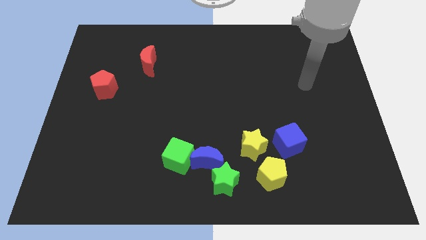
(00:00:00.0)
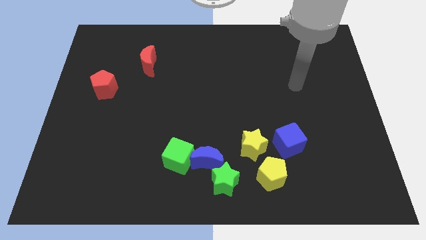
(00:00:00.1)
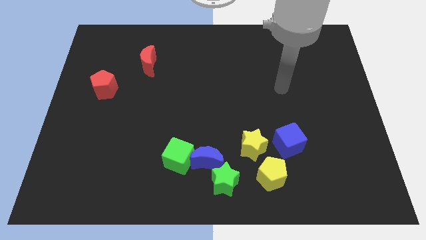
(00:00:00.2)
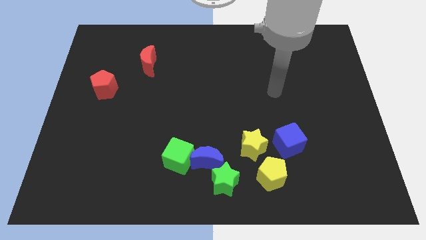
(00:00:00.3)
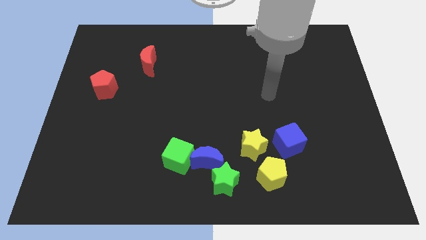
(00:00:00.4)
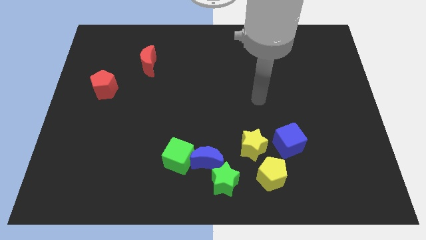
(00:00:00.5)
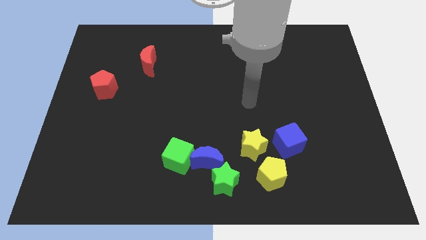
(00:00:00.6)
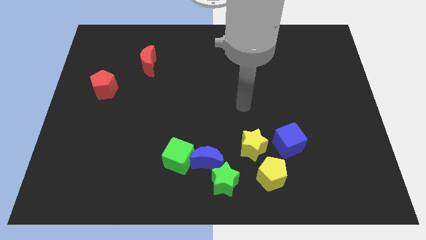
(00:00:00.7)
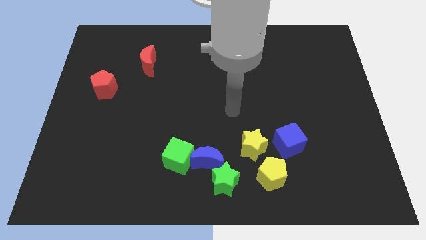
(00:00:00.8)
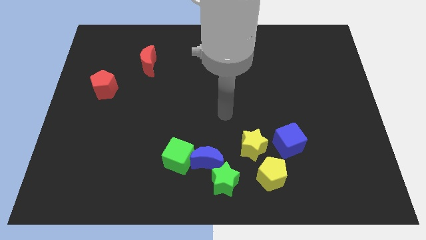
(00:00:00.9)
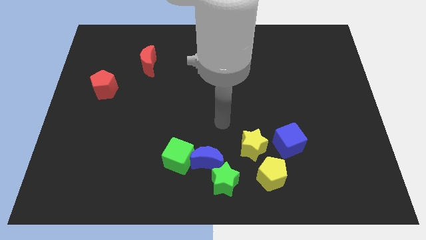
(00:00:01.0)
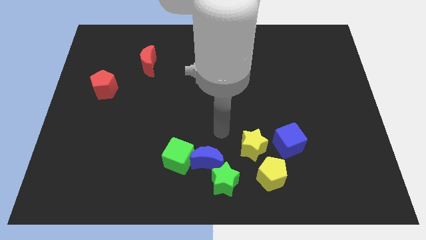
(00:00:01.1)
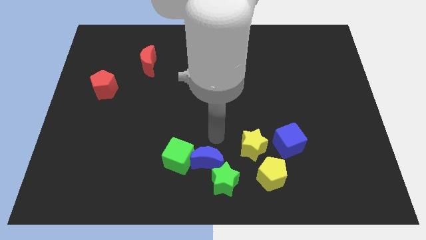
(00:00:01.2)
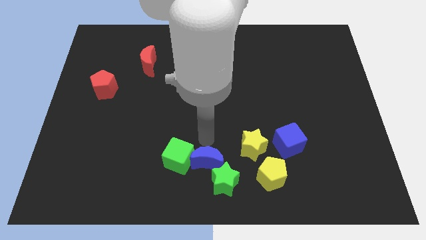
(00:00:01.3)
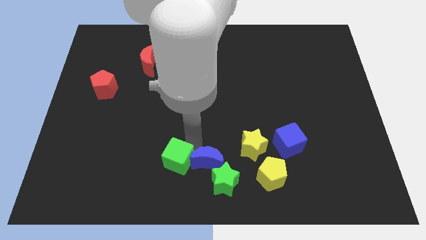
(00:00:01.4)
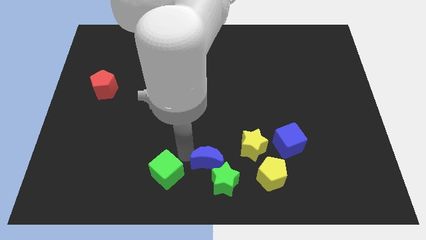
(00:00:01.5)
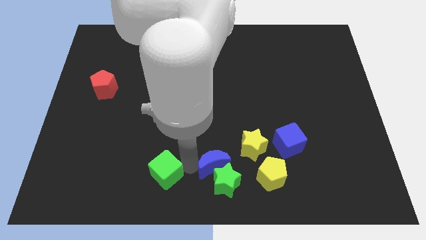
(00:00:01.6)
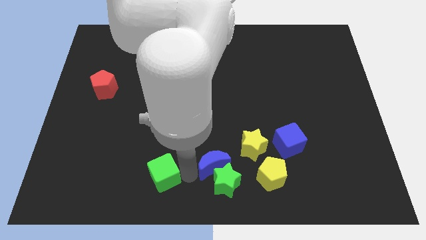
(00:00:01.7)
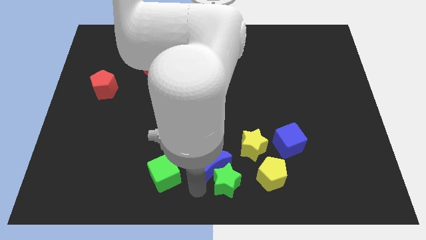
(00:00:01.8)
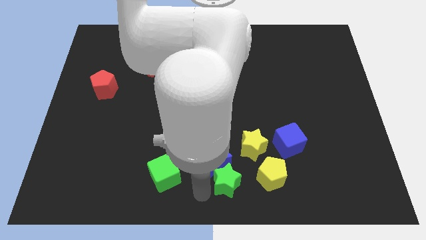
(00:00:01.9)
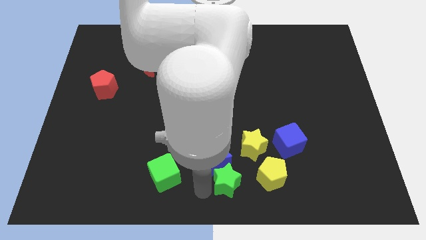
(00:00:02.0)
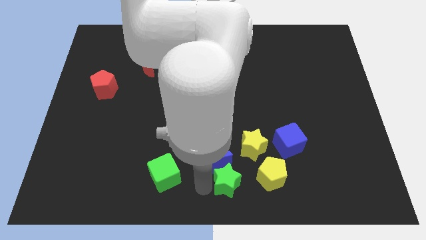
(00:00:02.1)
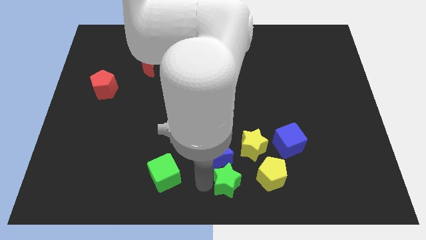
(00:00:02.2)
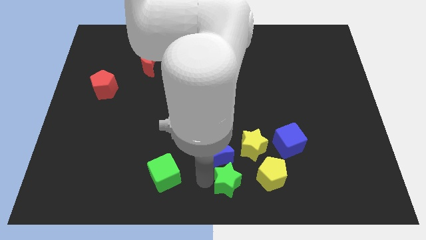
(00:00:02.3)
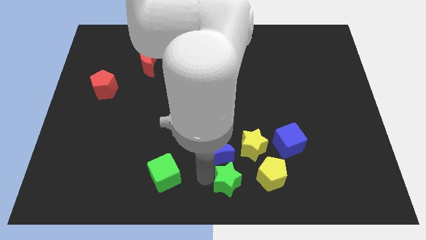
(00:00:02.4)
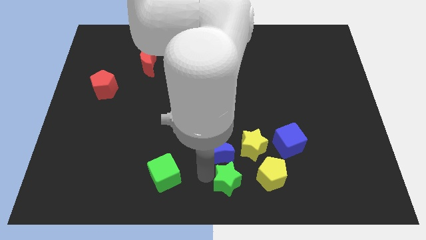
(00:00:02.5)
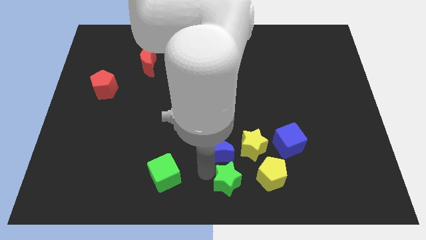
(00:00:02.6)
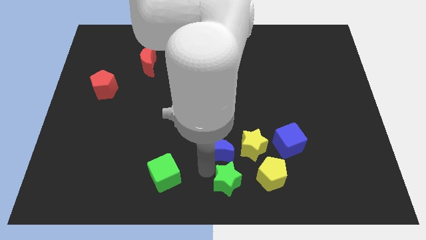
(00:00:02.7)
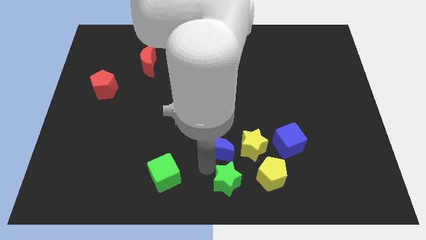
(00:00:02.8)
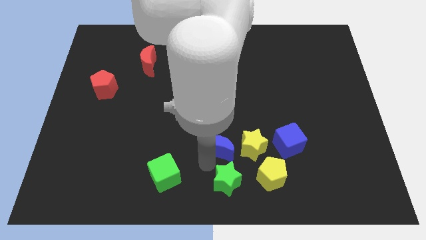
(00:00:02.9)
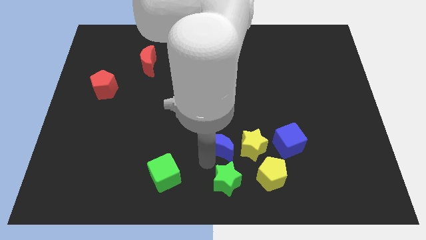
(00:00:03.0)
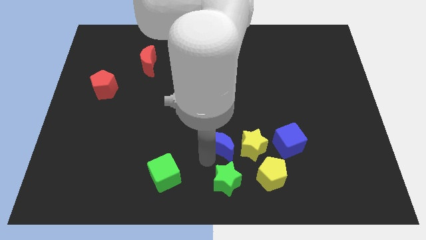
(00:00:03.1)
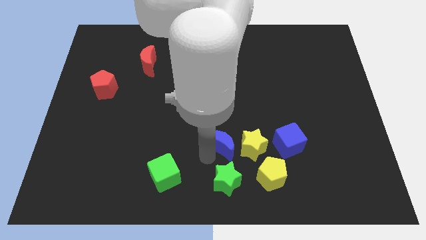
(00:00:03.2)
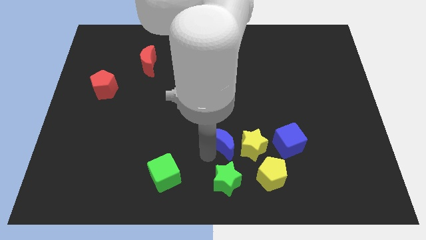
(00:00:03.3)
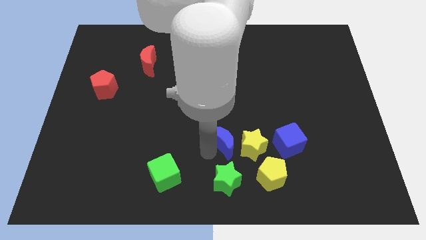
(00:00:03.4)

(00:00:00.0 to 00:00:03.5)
move the blue moon away from the green star and green cube

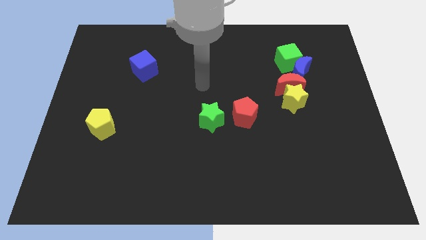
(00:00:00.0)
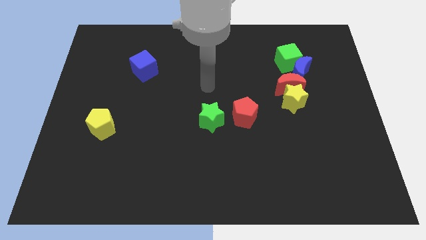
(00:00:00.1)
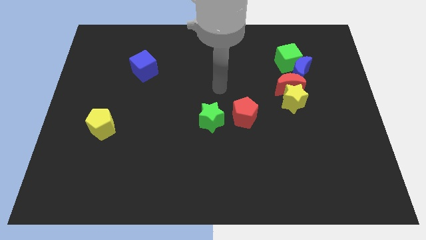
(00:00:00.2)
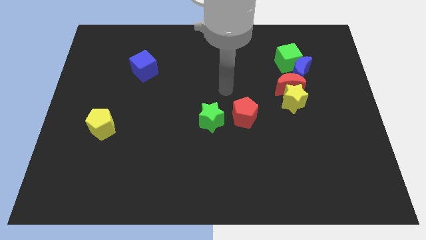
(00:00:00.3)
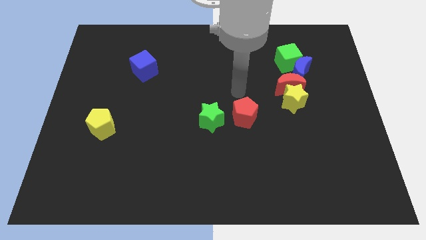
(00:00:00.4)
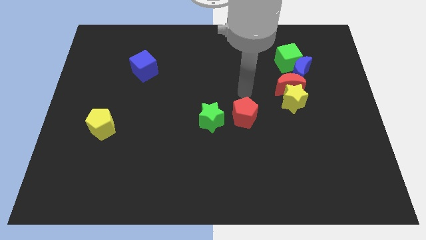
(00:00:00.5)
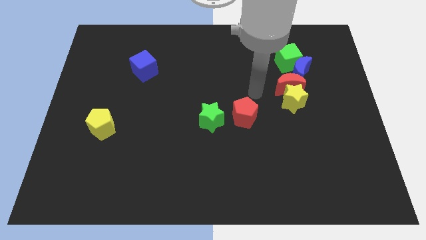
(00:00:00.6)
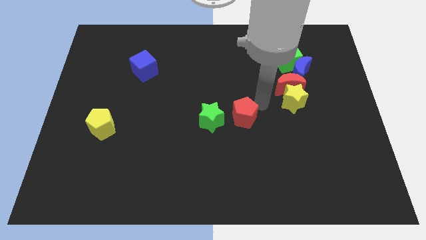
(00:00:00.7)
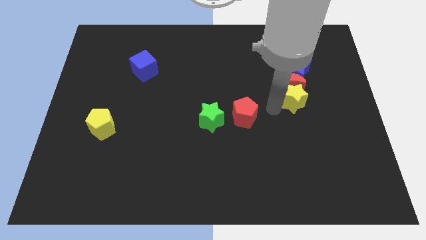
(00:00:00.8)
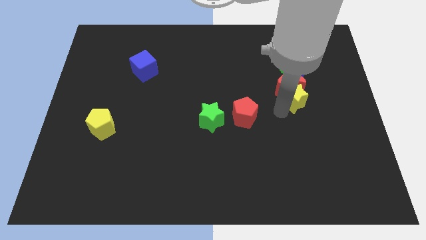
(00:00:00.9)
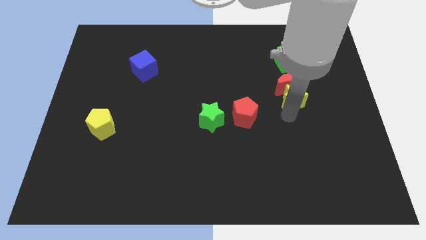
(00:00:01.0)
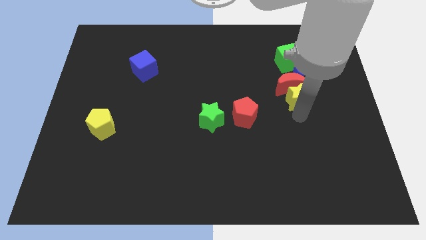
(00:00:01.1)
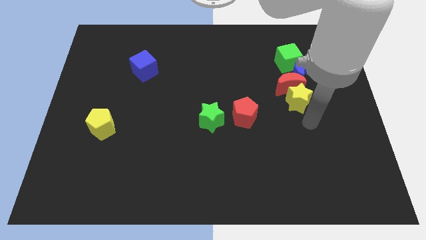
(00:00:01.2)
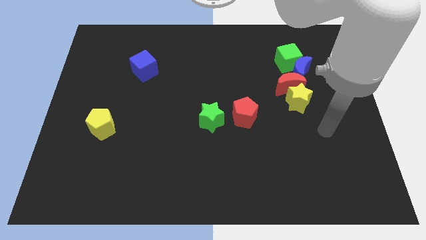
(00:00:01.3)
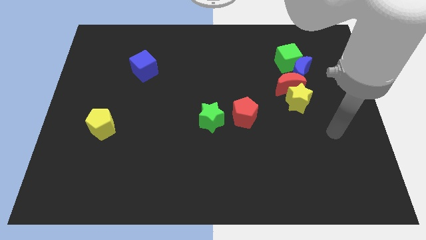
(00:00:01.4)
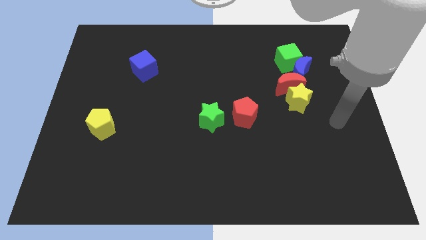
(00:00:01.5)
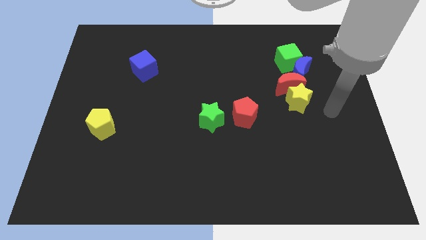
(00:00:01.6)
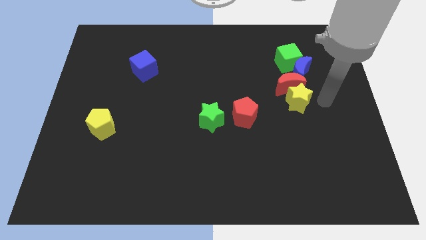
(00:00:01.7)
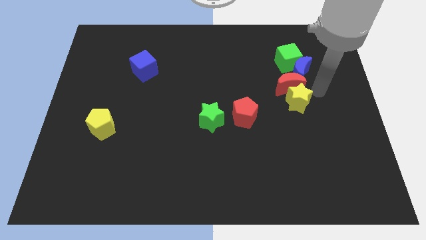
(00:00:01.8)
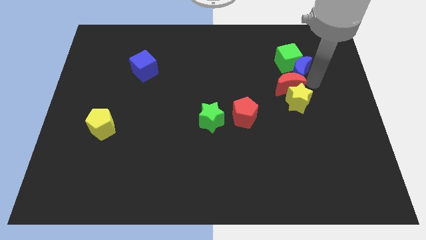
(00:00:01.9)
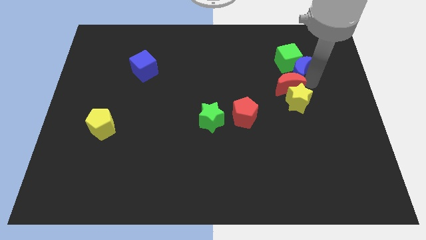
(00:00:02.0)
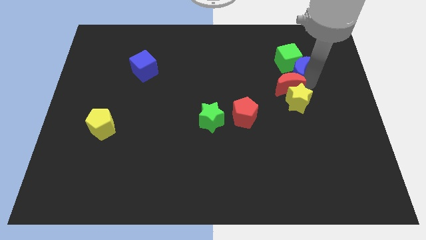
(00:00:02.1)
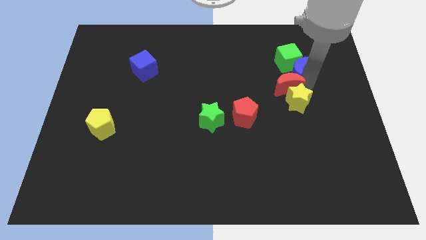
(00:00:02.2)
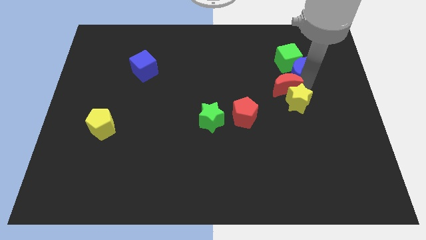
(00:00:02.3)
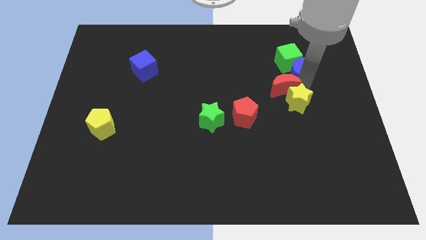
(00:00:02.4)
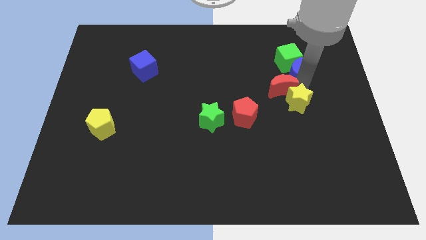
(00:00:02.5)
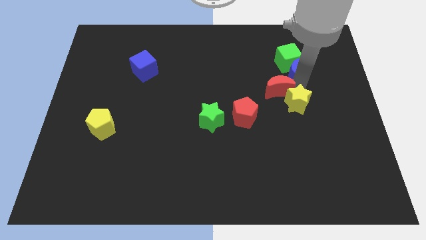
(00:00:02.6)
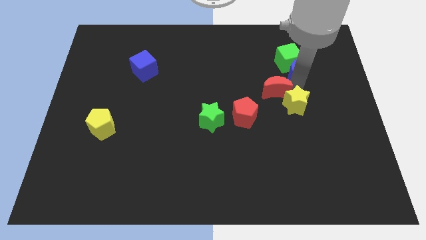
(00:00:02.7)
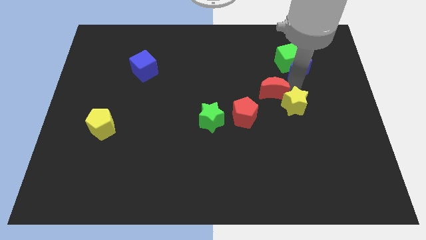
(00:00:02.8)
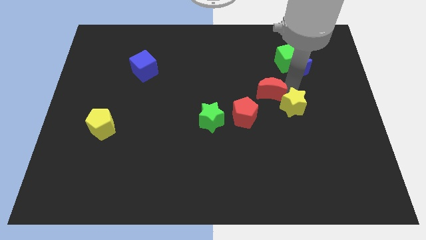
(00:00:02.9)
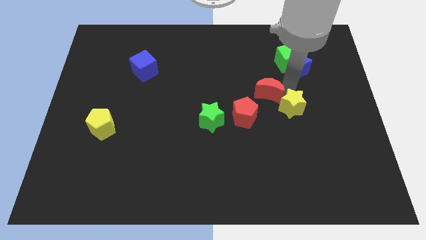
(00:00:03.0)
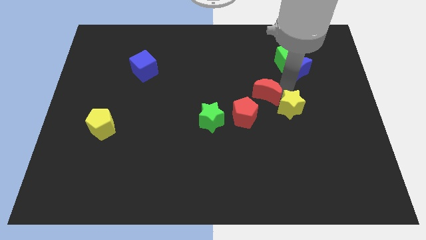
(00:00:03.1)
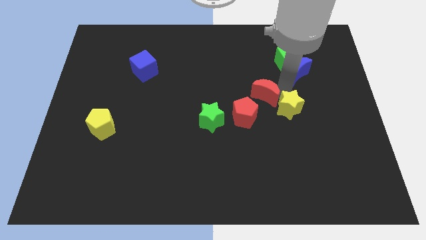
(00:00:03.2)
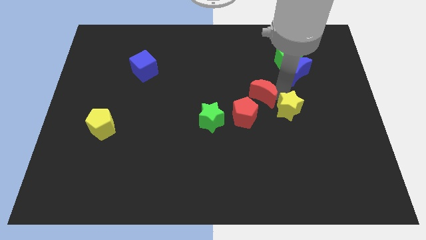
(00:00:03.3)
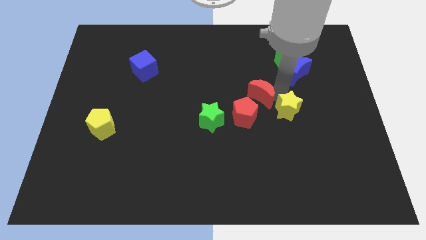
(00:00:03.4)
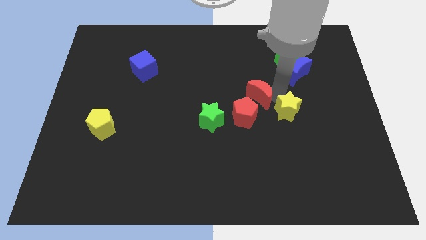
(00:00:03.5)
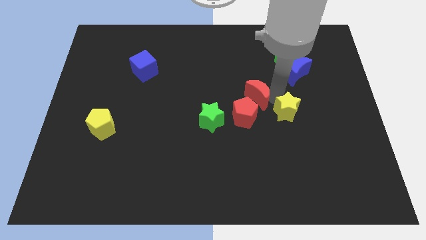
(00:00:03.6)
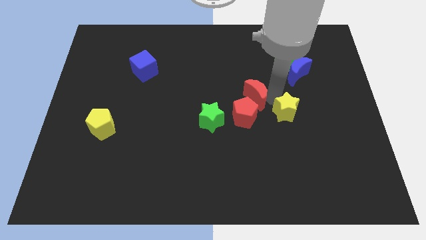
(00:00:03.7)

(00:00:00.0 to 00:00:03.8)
pull the red moon apart from the clump

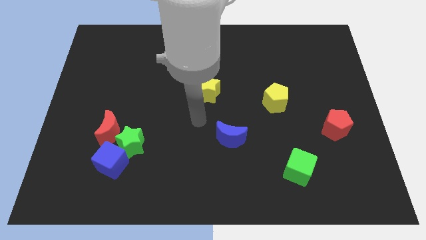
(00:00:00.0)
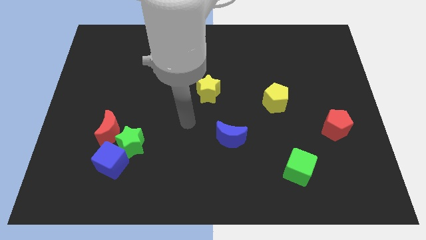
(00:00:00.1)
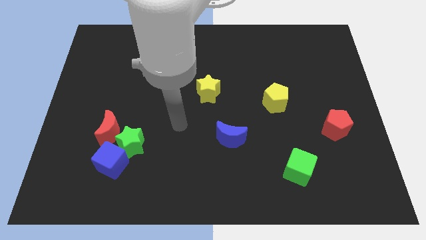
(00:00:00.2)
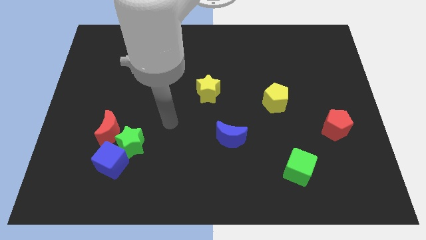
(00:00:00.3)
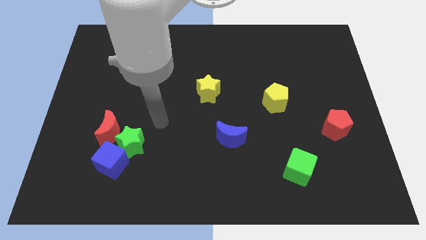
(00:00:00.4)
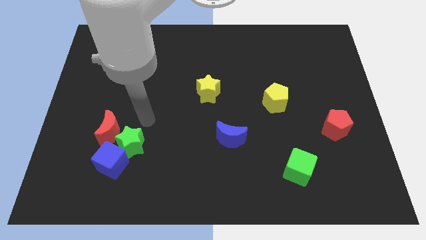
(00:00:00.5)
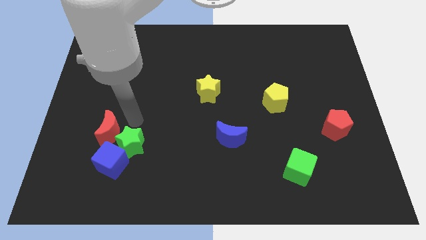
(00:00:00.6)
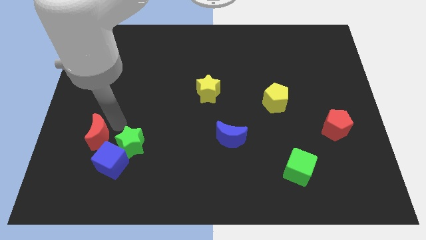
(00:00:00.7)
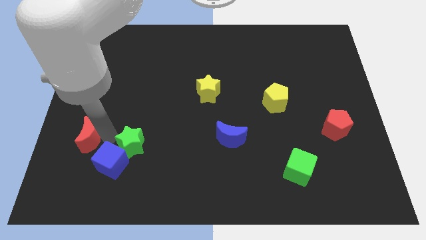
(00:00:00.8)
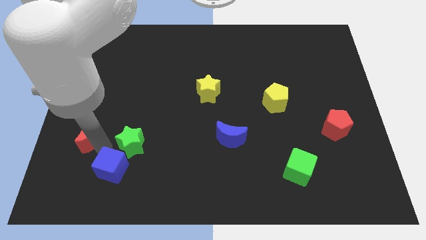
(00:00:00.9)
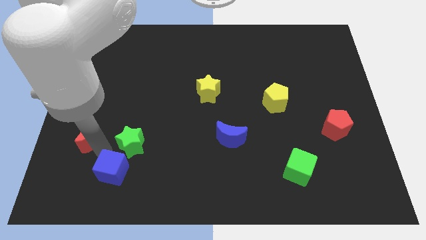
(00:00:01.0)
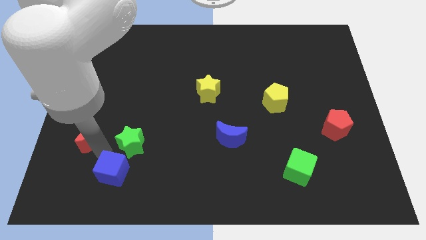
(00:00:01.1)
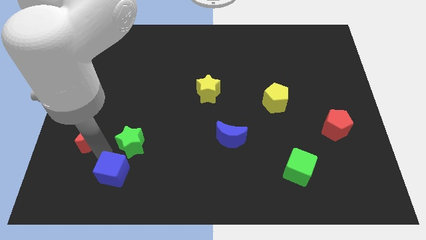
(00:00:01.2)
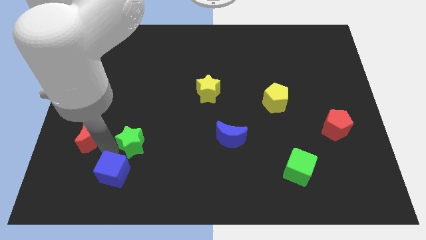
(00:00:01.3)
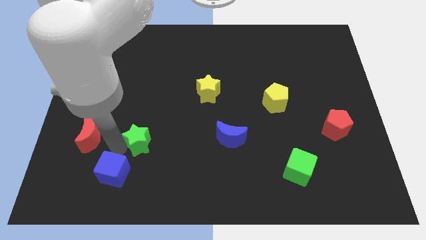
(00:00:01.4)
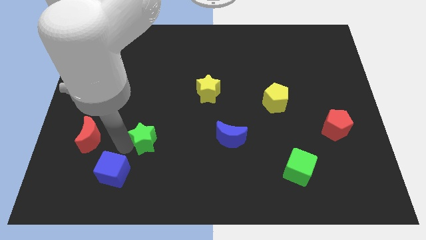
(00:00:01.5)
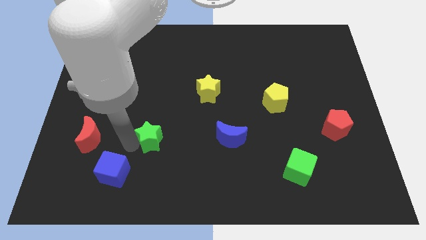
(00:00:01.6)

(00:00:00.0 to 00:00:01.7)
separate the green star from the blue cube and red moon

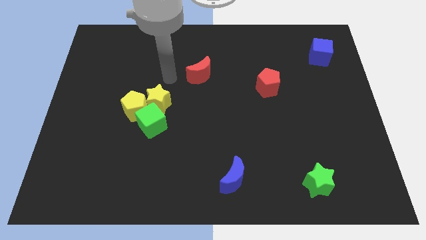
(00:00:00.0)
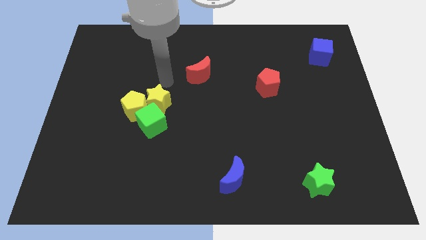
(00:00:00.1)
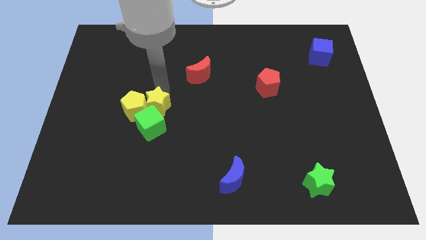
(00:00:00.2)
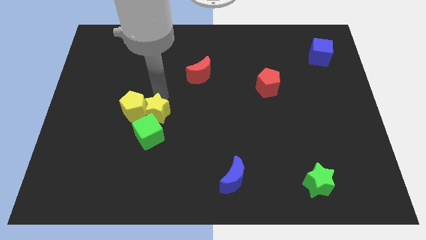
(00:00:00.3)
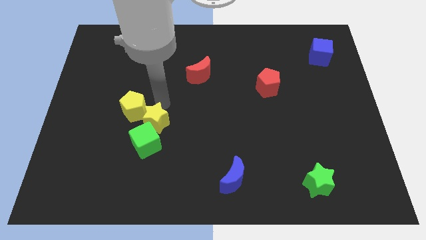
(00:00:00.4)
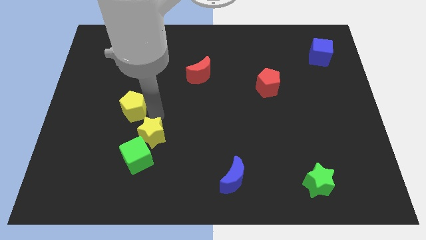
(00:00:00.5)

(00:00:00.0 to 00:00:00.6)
pull the yellow pentagon apart from the yellow star and green cube
